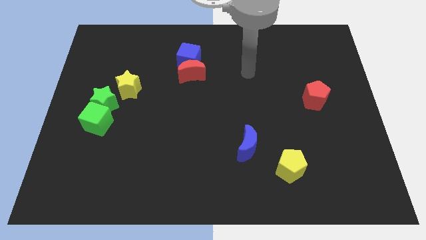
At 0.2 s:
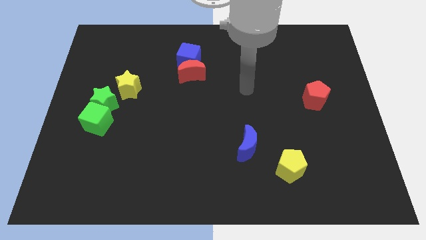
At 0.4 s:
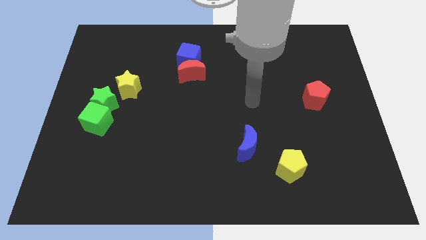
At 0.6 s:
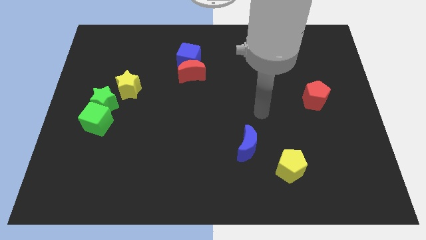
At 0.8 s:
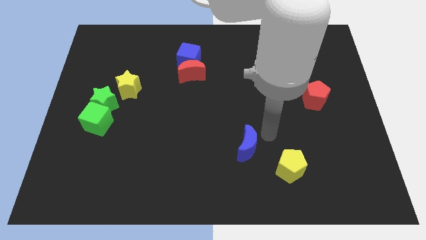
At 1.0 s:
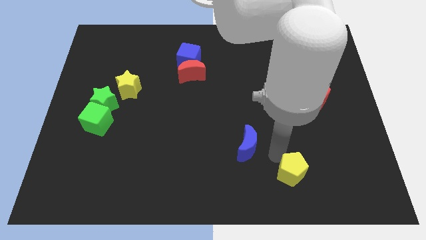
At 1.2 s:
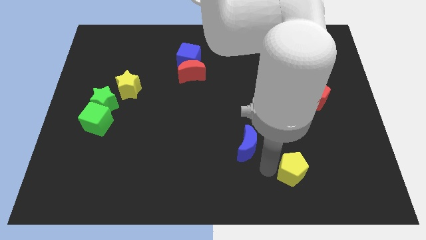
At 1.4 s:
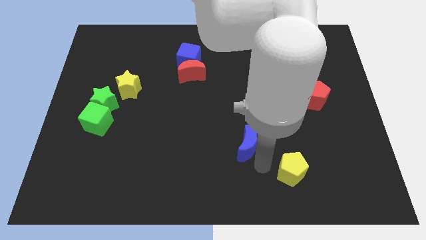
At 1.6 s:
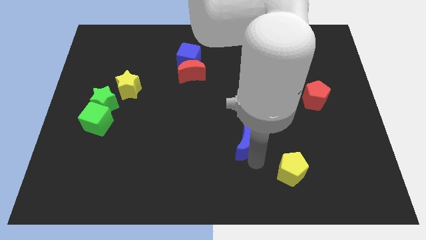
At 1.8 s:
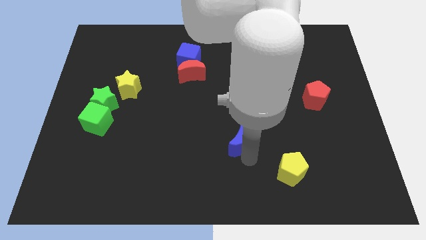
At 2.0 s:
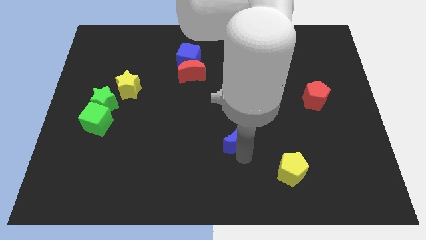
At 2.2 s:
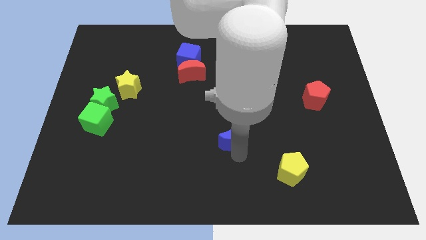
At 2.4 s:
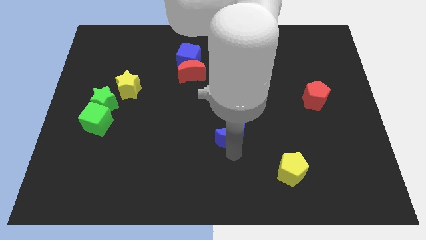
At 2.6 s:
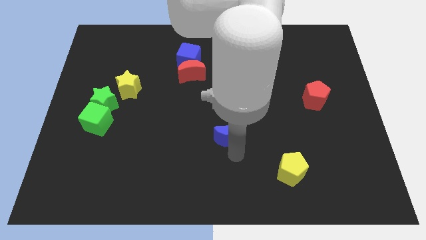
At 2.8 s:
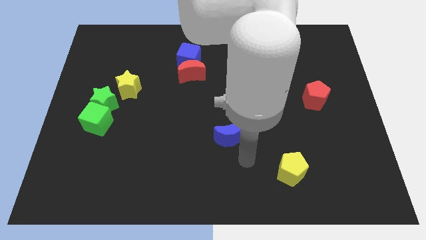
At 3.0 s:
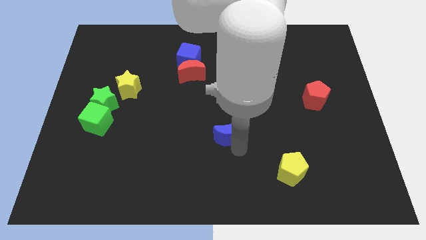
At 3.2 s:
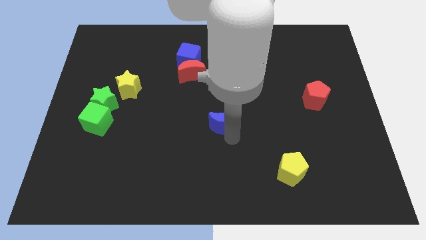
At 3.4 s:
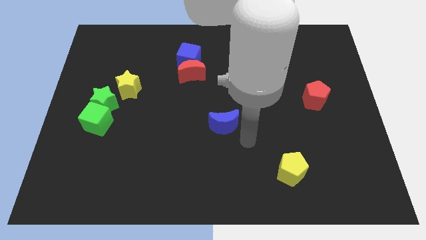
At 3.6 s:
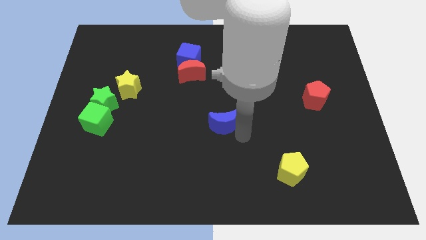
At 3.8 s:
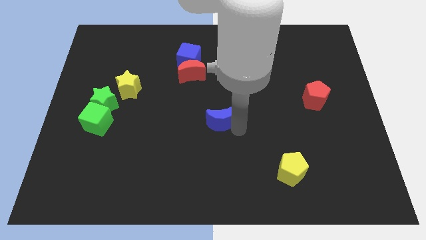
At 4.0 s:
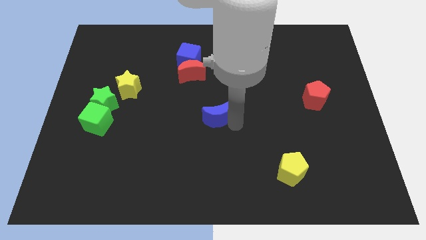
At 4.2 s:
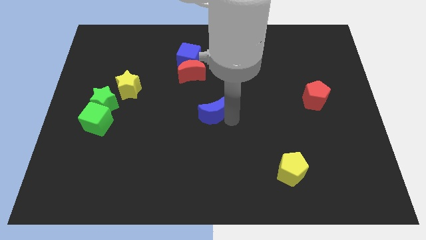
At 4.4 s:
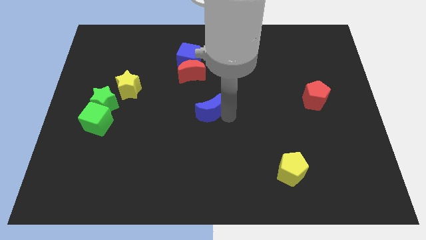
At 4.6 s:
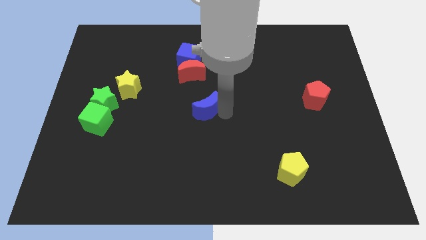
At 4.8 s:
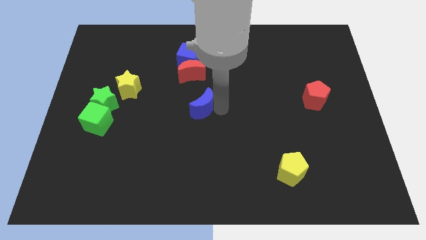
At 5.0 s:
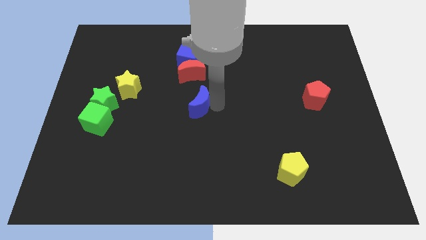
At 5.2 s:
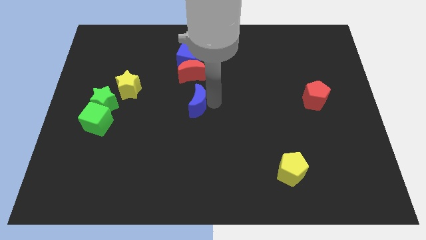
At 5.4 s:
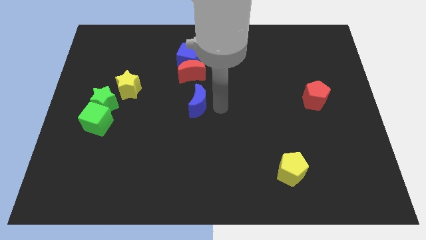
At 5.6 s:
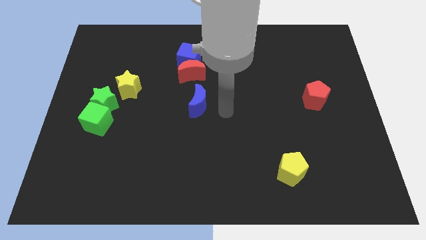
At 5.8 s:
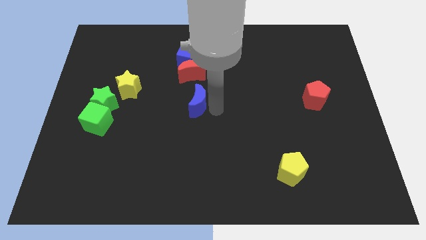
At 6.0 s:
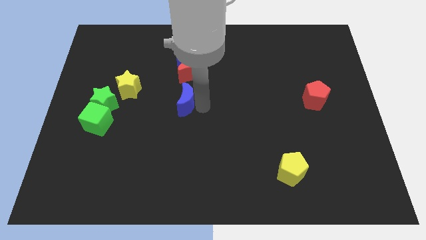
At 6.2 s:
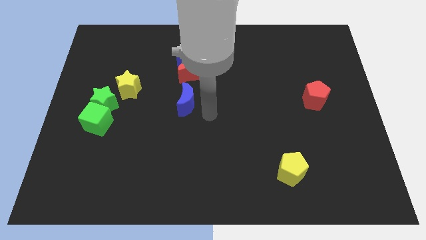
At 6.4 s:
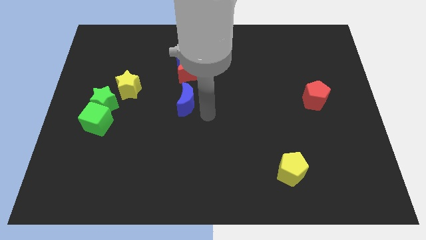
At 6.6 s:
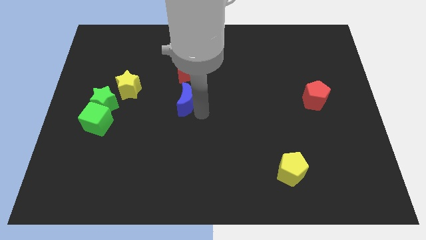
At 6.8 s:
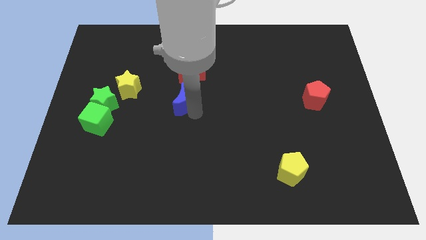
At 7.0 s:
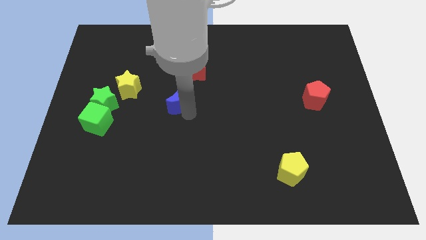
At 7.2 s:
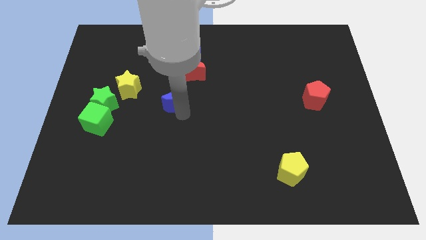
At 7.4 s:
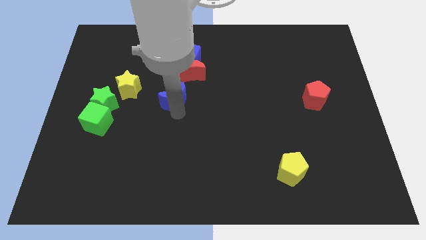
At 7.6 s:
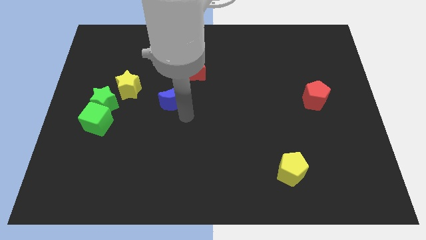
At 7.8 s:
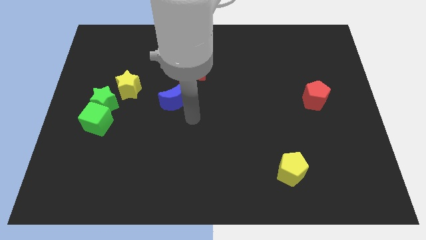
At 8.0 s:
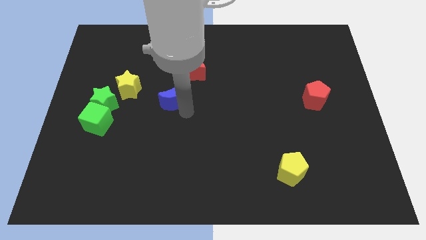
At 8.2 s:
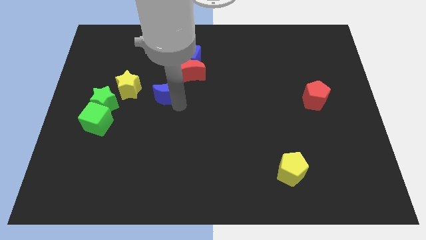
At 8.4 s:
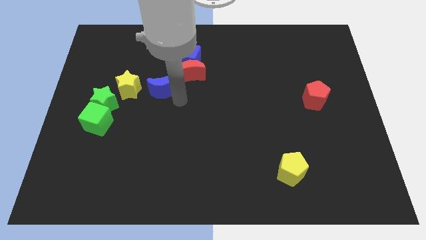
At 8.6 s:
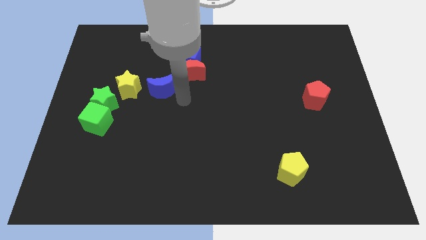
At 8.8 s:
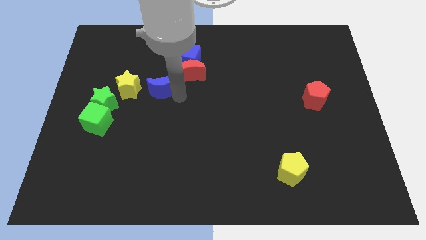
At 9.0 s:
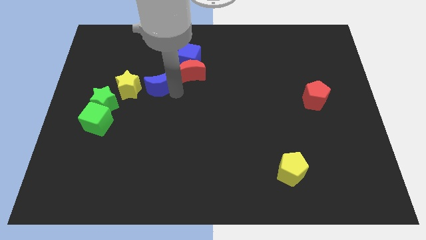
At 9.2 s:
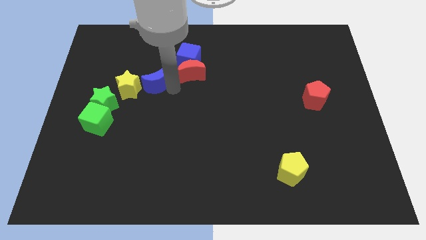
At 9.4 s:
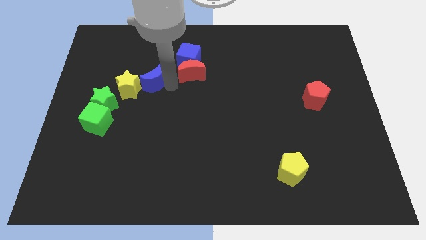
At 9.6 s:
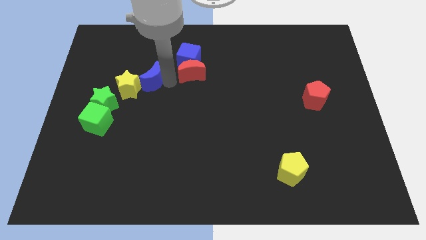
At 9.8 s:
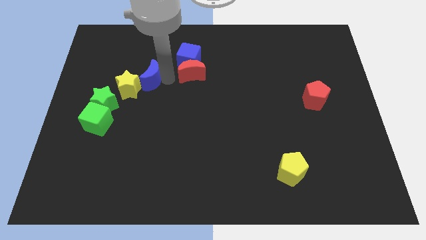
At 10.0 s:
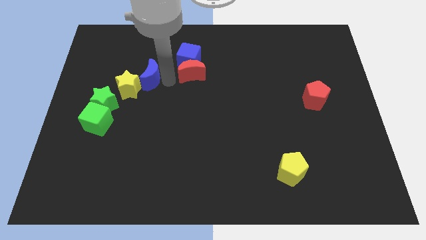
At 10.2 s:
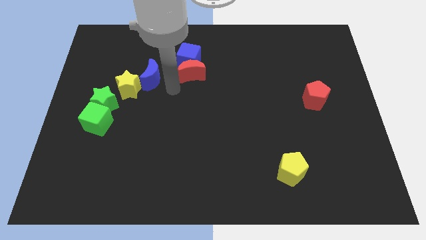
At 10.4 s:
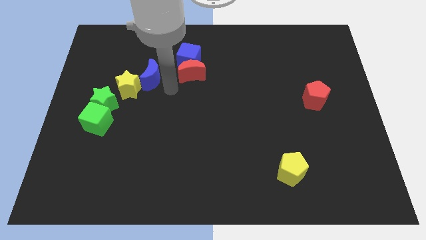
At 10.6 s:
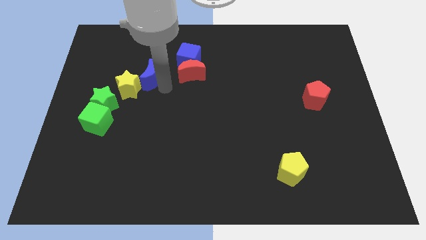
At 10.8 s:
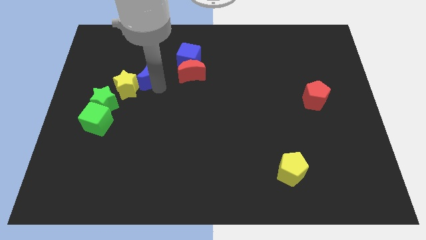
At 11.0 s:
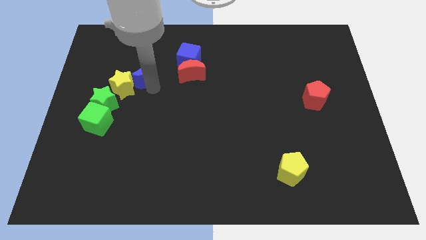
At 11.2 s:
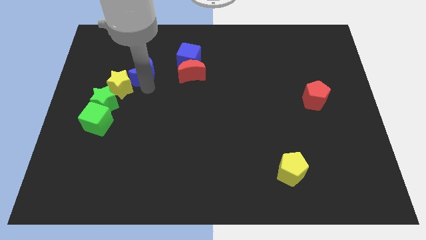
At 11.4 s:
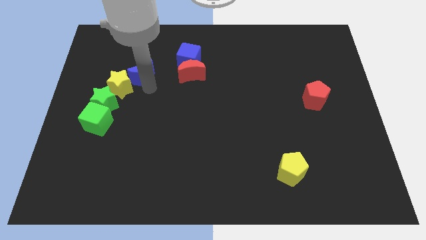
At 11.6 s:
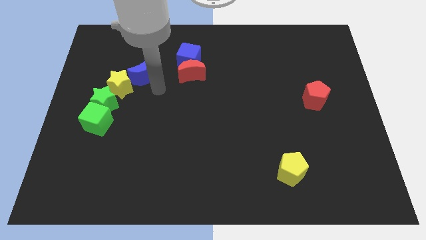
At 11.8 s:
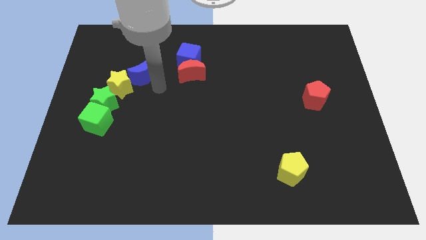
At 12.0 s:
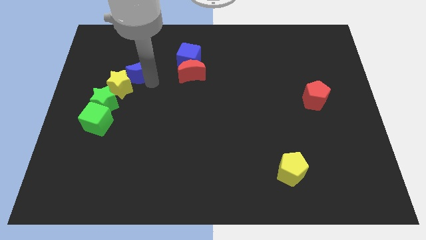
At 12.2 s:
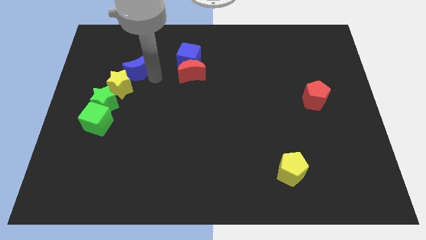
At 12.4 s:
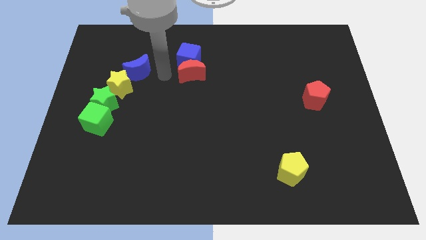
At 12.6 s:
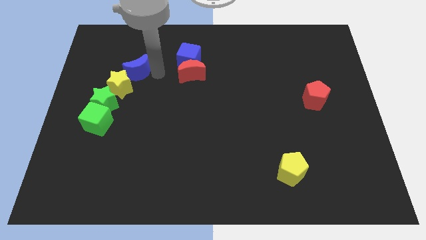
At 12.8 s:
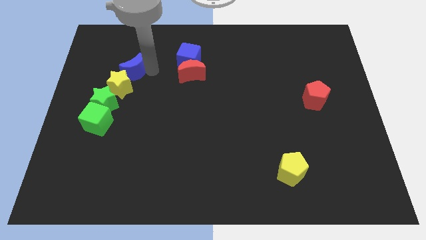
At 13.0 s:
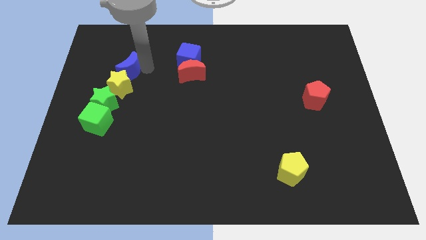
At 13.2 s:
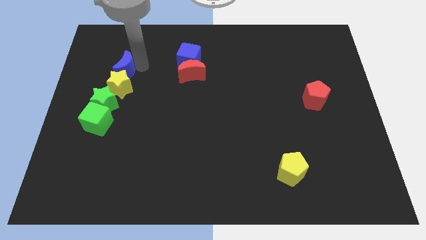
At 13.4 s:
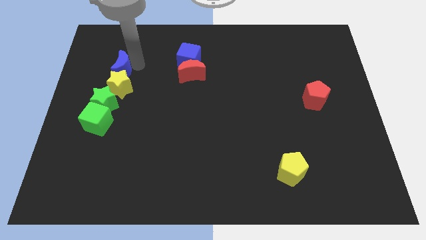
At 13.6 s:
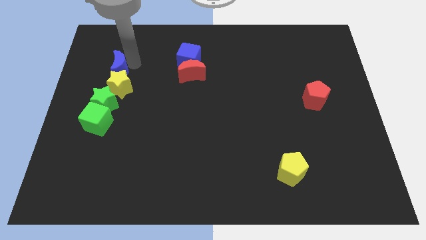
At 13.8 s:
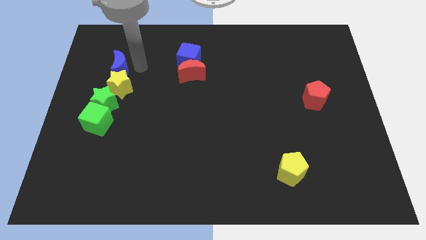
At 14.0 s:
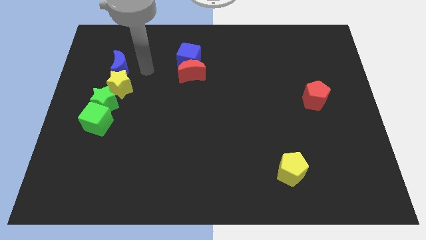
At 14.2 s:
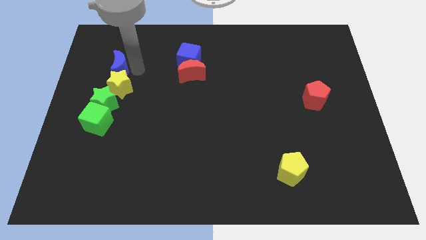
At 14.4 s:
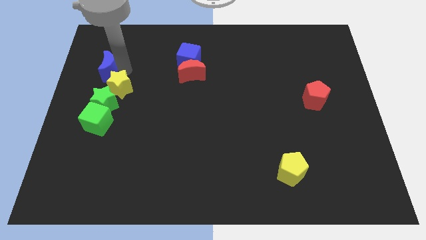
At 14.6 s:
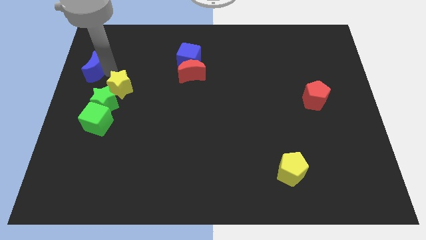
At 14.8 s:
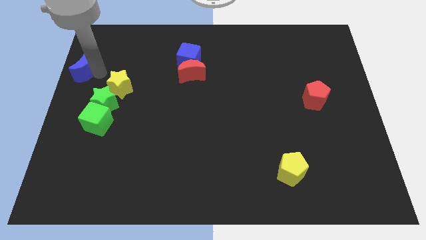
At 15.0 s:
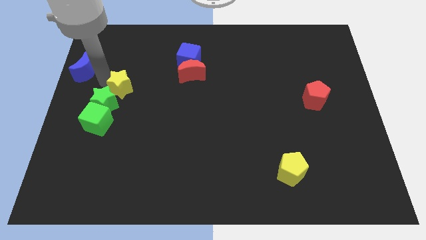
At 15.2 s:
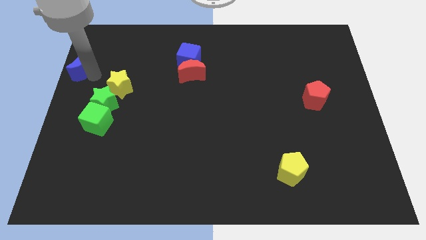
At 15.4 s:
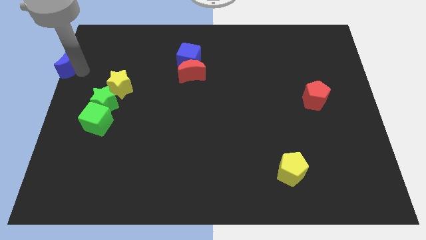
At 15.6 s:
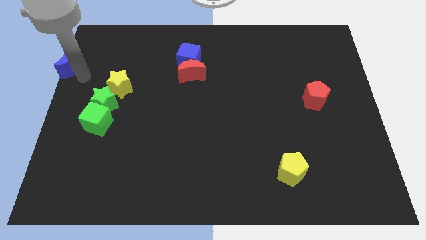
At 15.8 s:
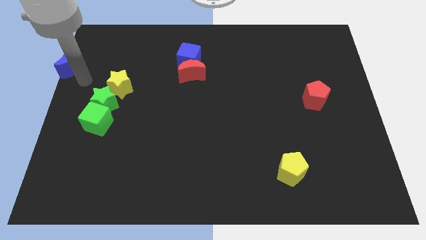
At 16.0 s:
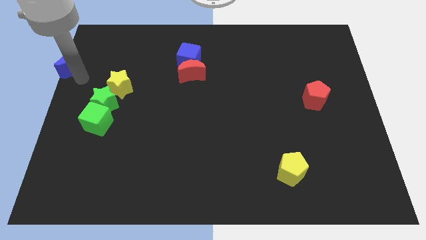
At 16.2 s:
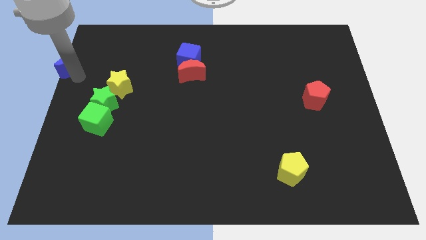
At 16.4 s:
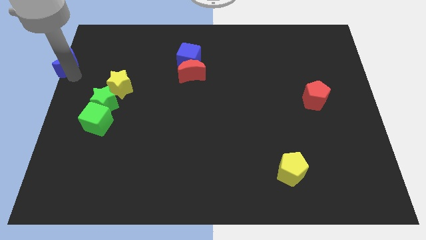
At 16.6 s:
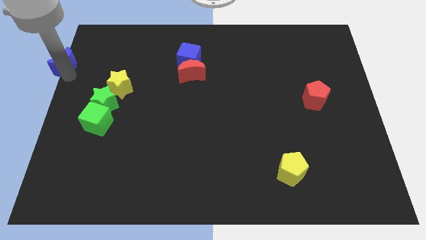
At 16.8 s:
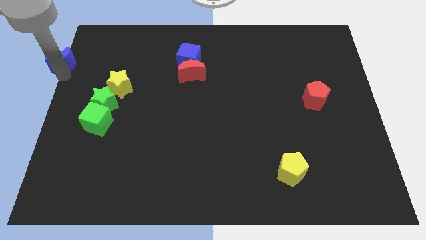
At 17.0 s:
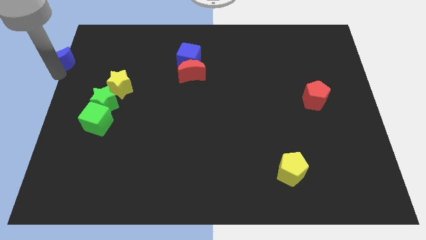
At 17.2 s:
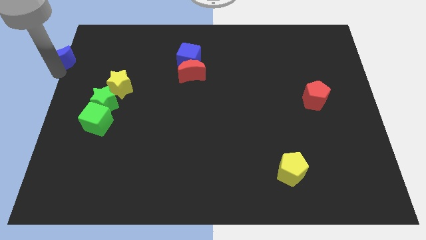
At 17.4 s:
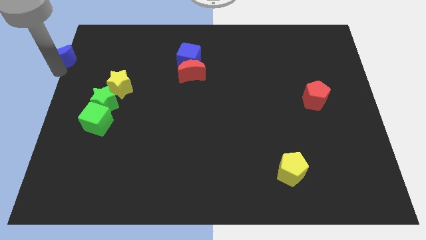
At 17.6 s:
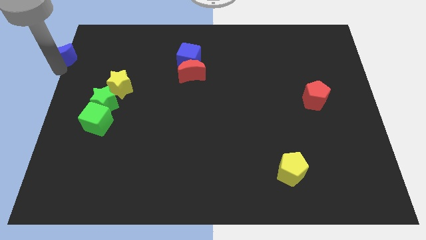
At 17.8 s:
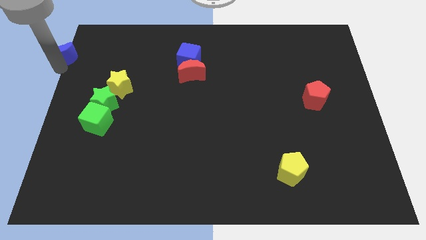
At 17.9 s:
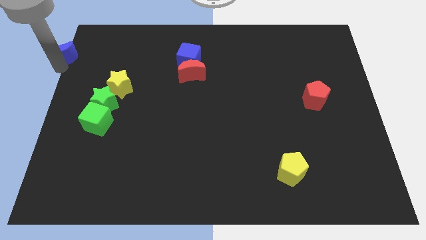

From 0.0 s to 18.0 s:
move the blue moon to the upper left corner
